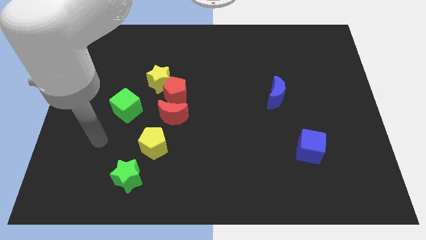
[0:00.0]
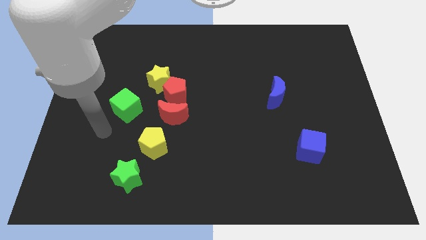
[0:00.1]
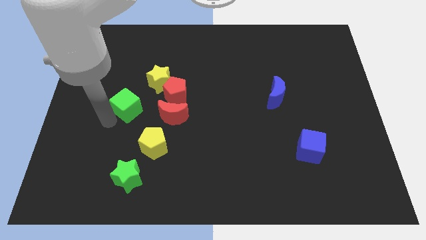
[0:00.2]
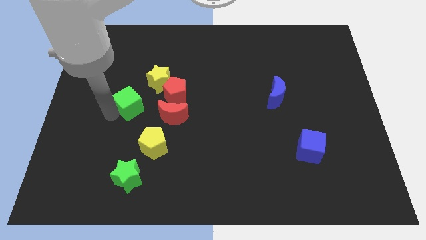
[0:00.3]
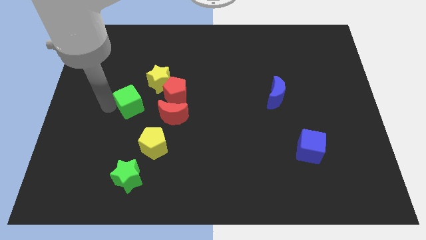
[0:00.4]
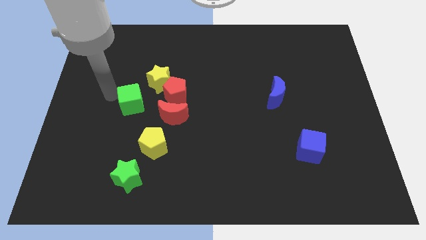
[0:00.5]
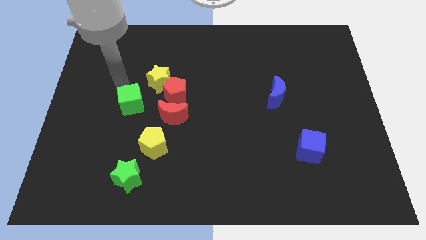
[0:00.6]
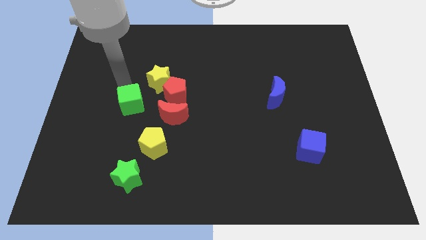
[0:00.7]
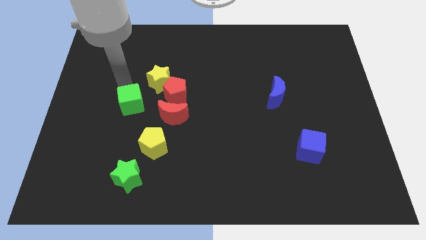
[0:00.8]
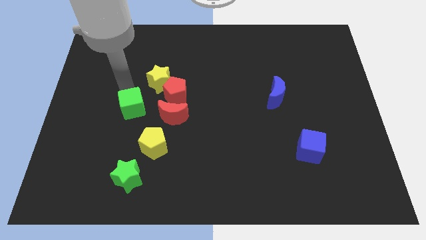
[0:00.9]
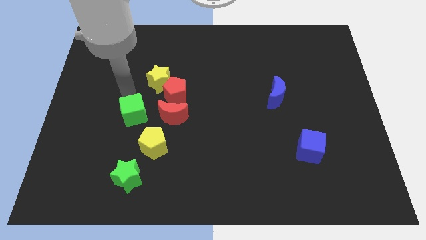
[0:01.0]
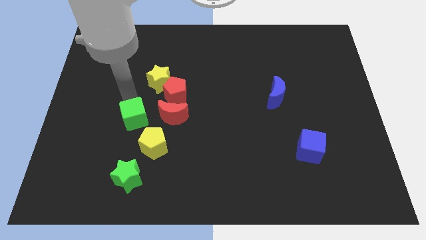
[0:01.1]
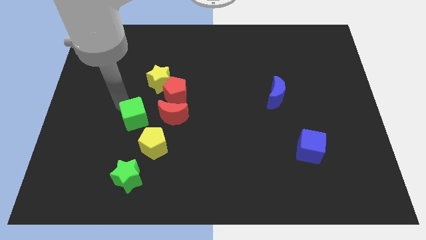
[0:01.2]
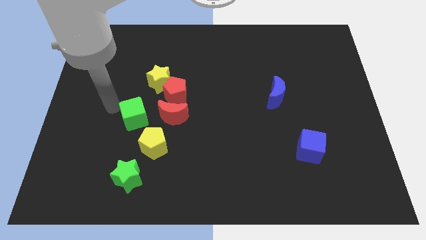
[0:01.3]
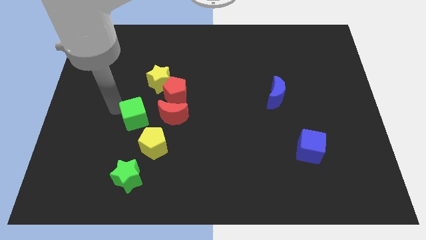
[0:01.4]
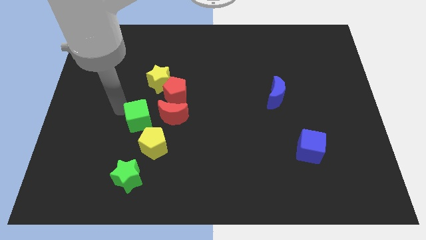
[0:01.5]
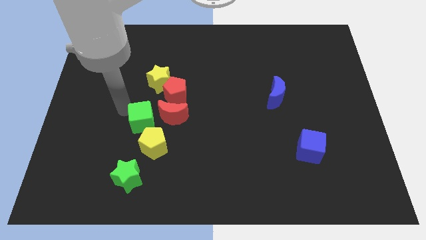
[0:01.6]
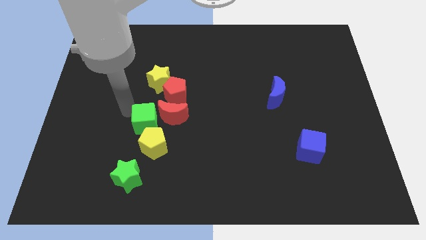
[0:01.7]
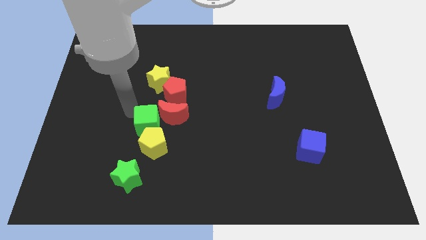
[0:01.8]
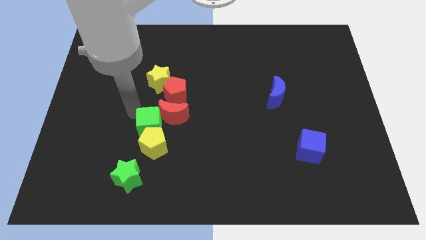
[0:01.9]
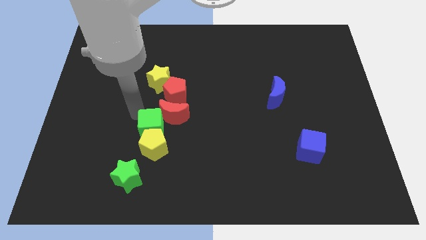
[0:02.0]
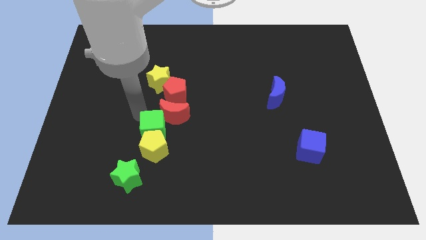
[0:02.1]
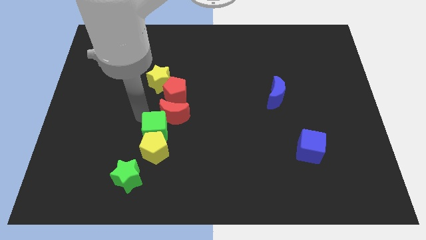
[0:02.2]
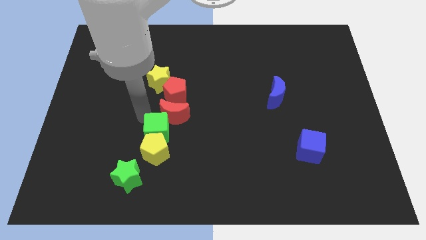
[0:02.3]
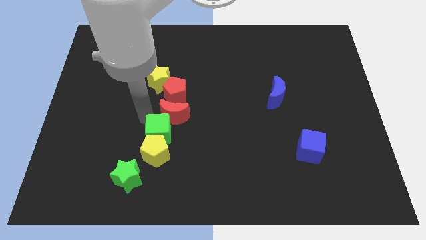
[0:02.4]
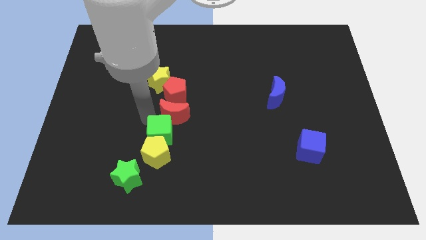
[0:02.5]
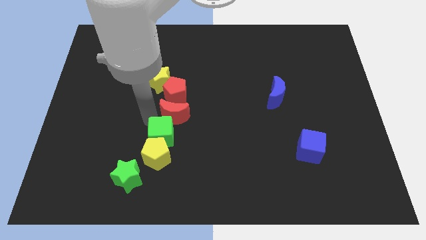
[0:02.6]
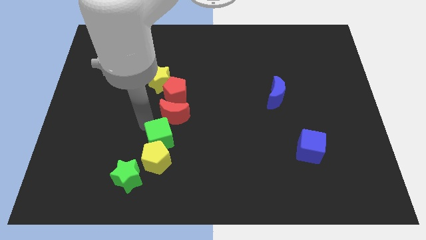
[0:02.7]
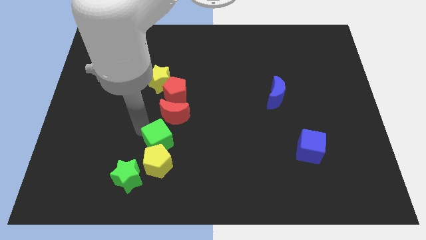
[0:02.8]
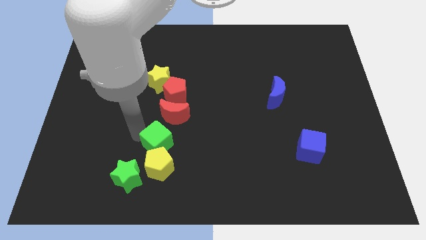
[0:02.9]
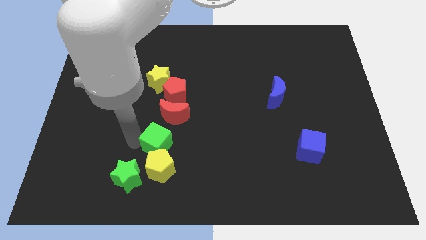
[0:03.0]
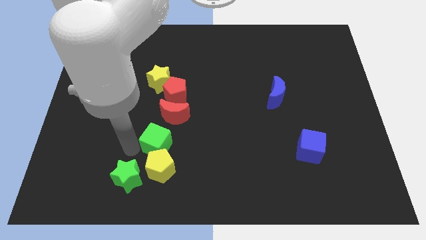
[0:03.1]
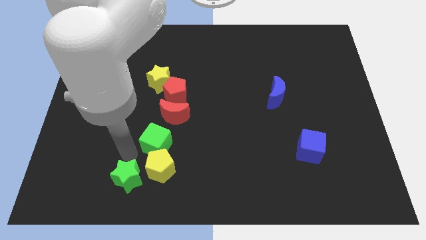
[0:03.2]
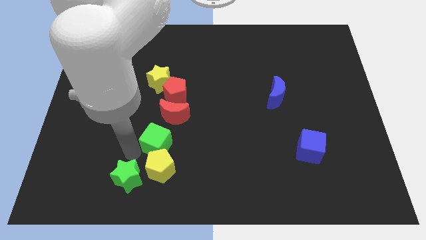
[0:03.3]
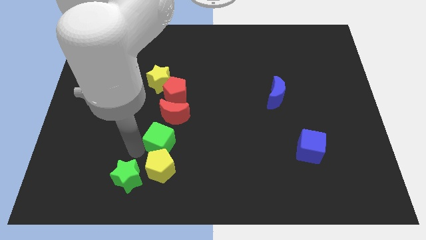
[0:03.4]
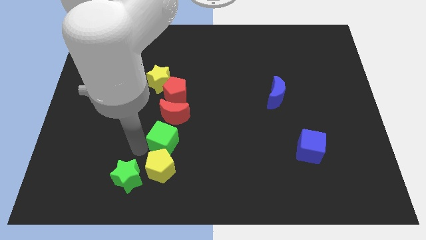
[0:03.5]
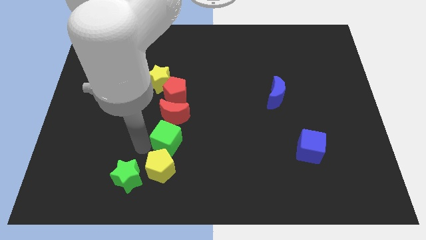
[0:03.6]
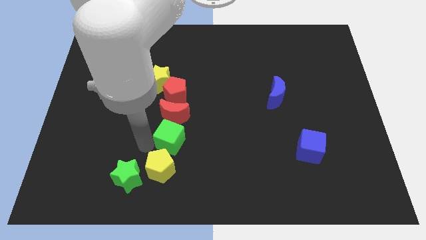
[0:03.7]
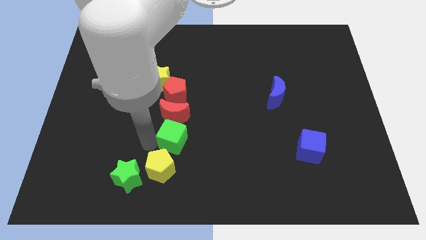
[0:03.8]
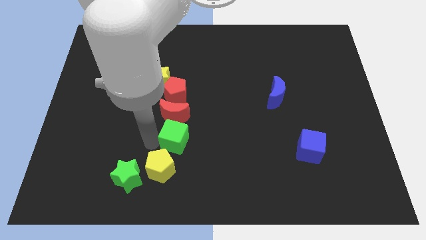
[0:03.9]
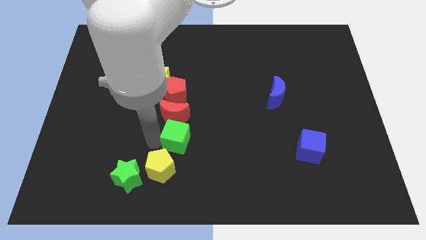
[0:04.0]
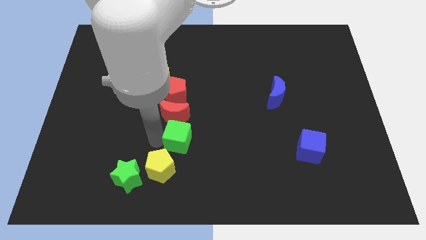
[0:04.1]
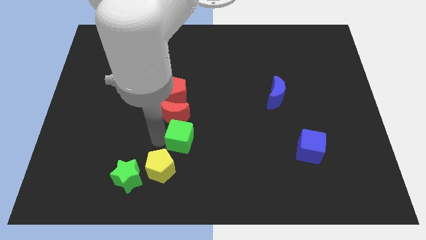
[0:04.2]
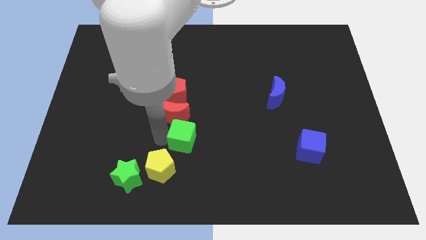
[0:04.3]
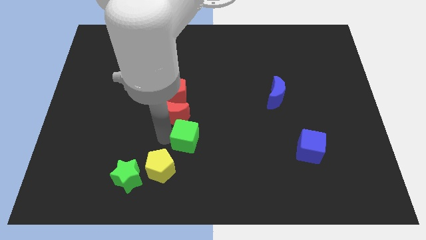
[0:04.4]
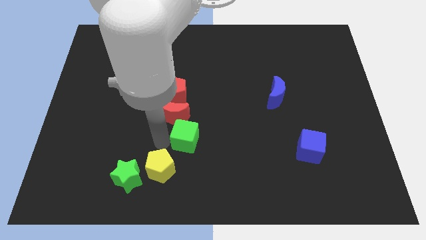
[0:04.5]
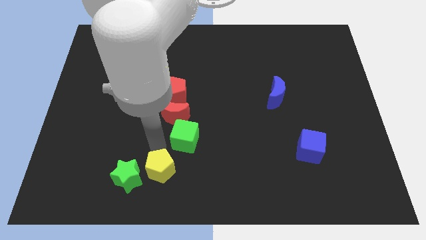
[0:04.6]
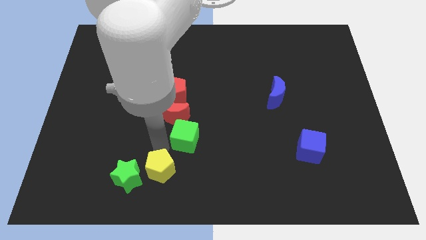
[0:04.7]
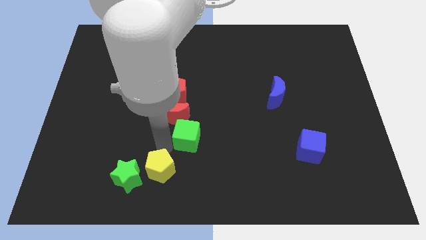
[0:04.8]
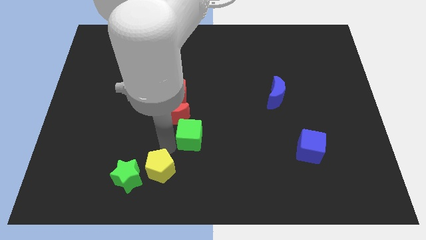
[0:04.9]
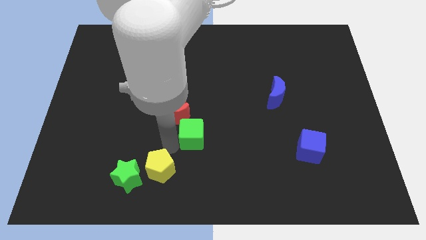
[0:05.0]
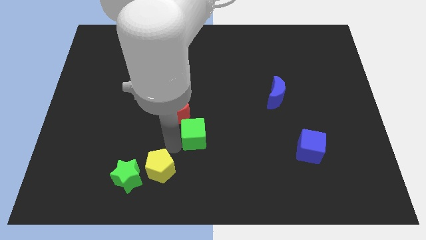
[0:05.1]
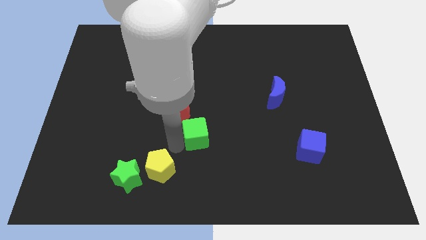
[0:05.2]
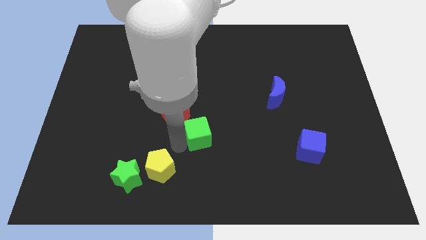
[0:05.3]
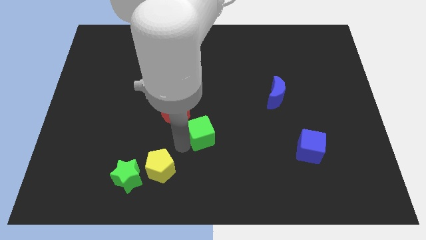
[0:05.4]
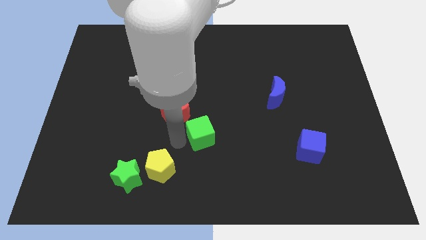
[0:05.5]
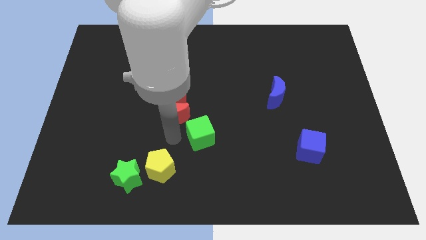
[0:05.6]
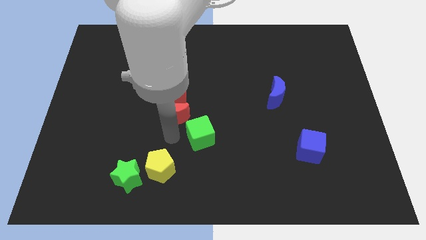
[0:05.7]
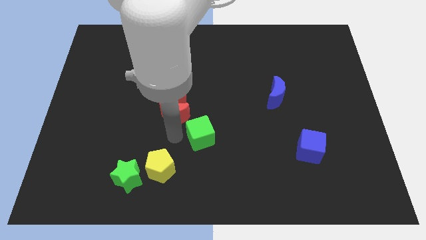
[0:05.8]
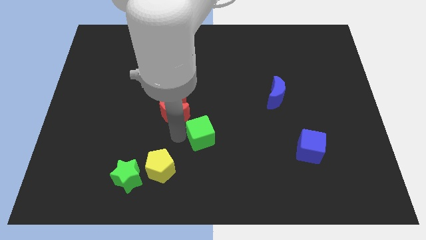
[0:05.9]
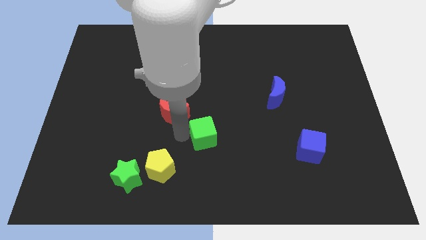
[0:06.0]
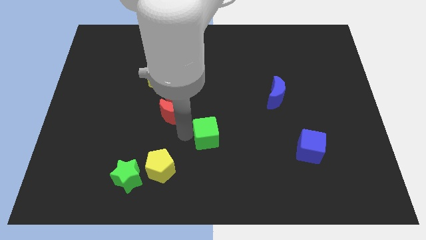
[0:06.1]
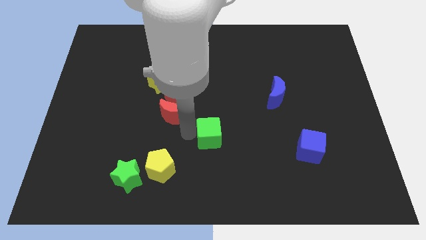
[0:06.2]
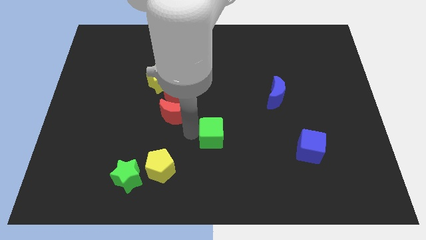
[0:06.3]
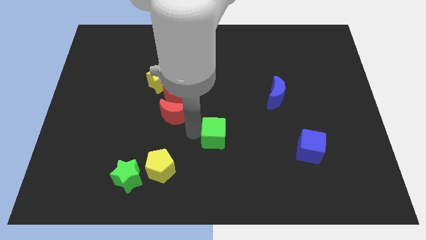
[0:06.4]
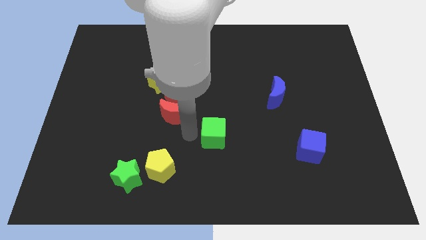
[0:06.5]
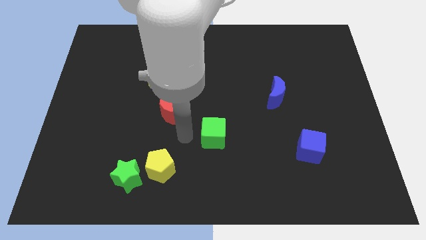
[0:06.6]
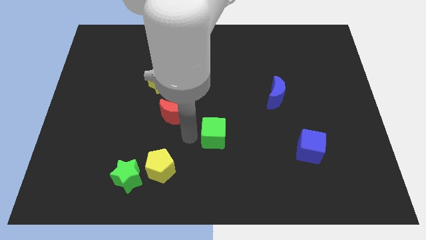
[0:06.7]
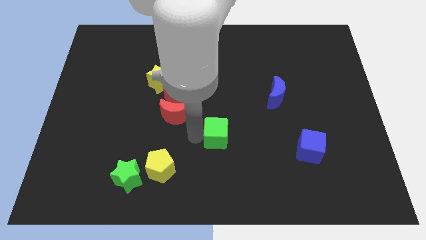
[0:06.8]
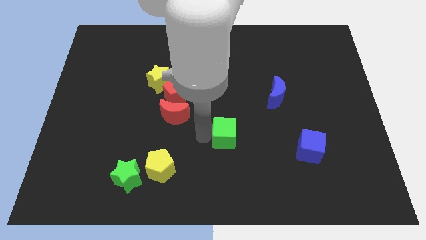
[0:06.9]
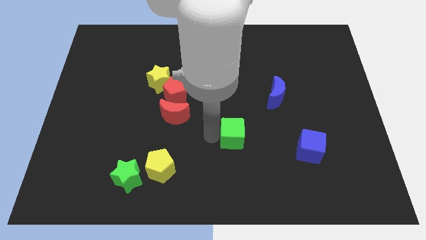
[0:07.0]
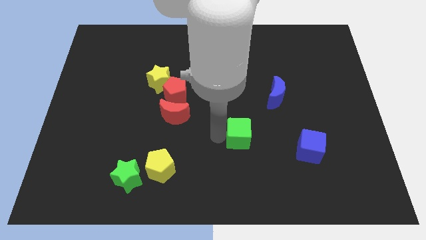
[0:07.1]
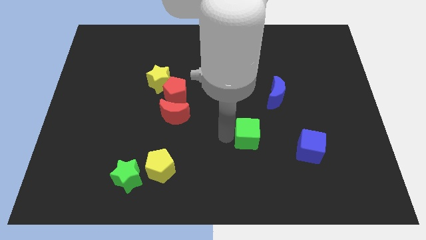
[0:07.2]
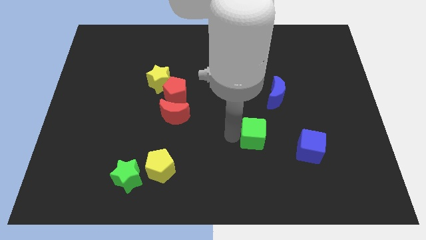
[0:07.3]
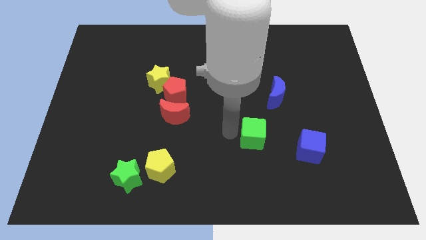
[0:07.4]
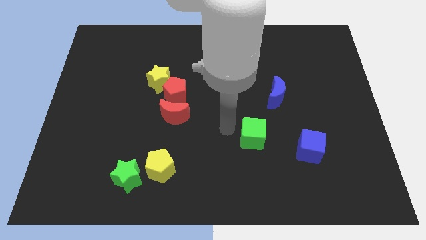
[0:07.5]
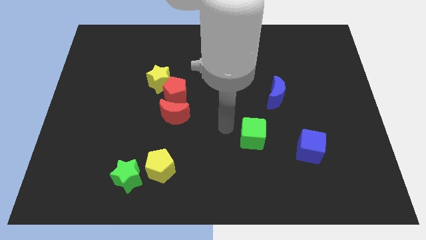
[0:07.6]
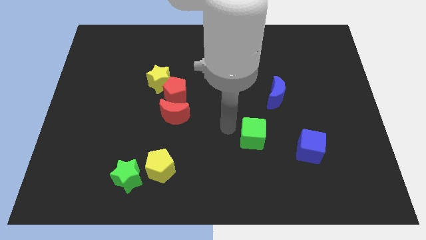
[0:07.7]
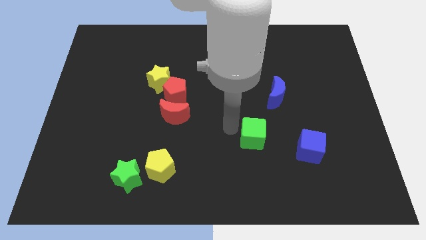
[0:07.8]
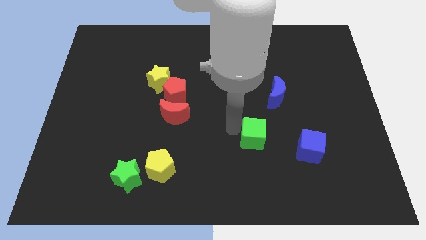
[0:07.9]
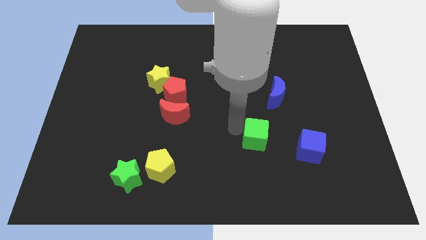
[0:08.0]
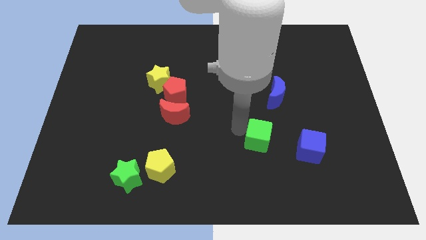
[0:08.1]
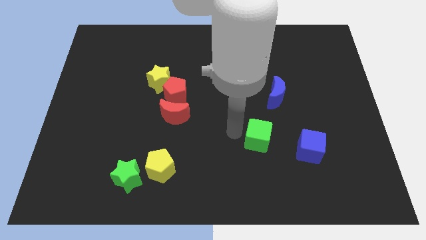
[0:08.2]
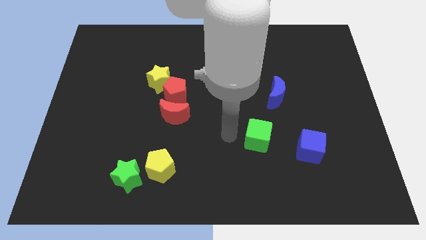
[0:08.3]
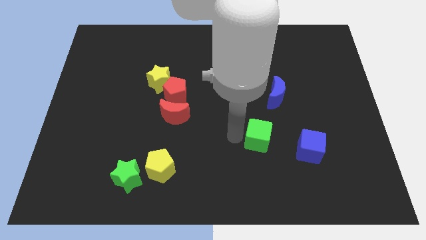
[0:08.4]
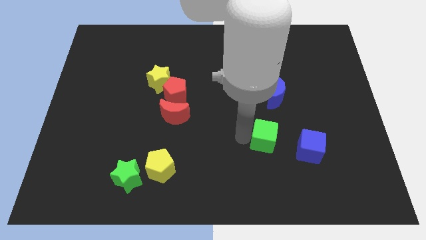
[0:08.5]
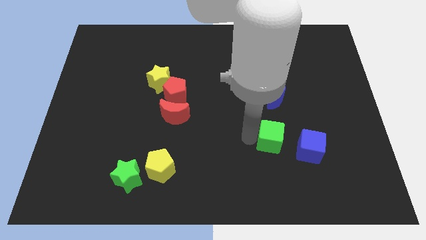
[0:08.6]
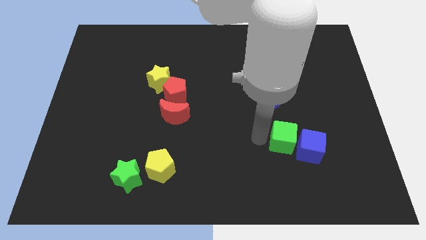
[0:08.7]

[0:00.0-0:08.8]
put the green cube to the blue cube
